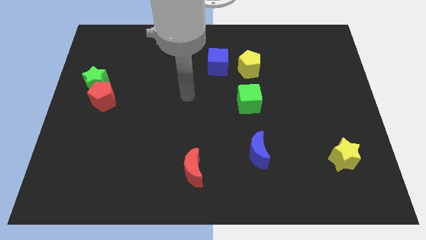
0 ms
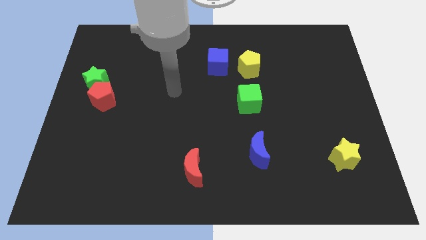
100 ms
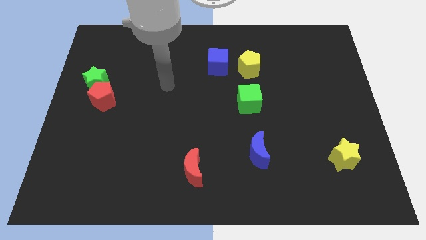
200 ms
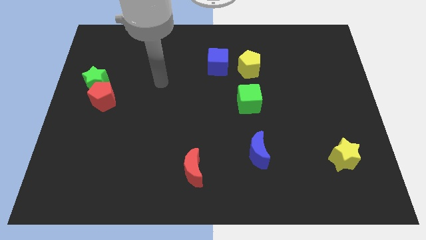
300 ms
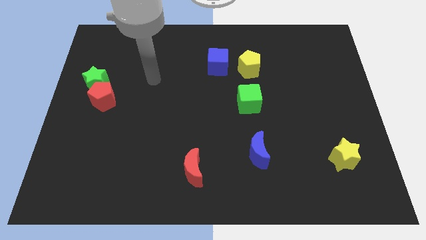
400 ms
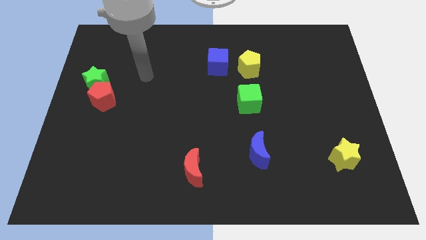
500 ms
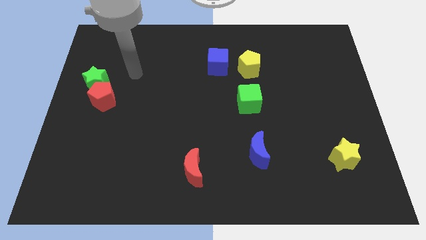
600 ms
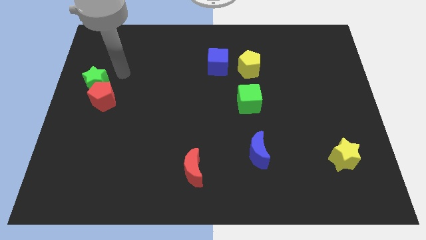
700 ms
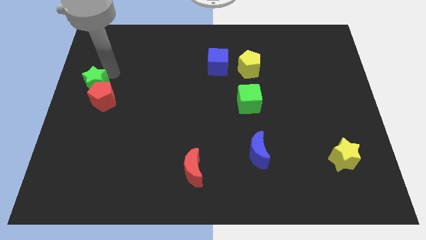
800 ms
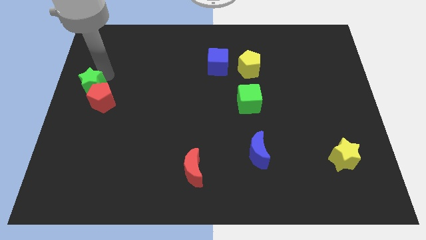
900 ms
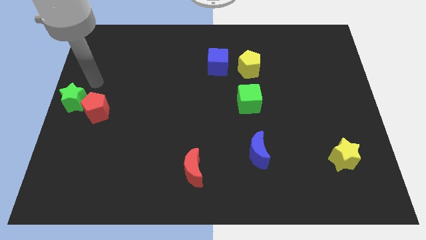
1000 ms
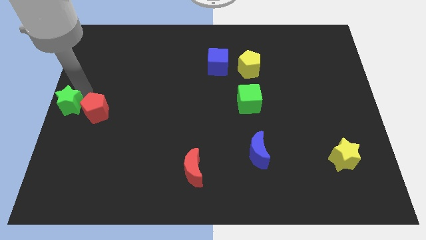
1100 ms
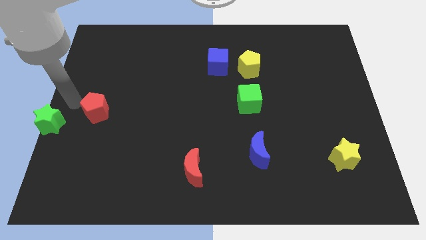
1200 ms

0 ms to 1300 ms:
separate the red pentagon from the green star

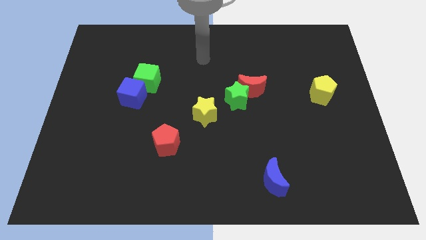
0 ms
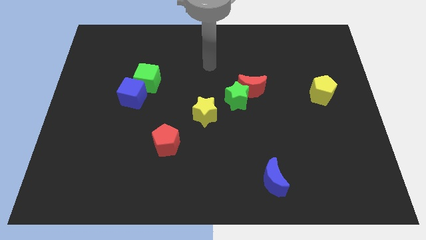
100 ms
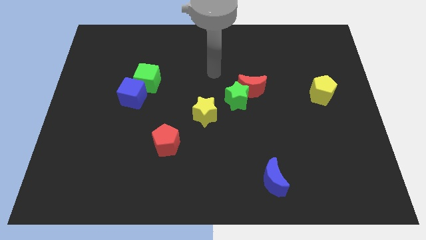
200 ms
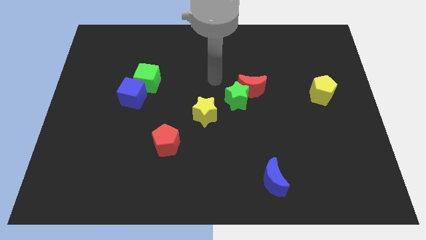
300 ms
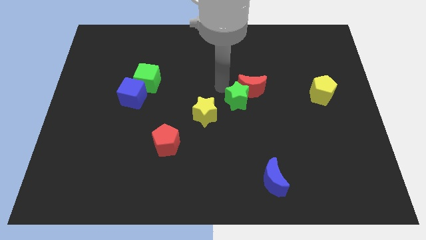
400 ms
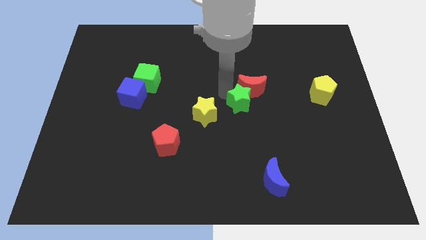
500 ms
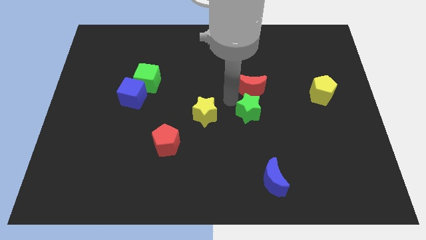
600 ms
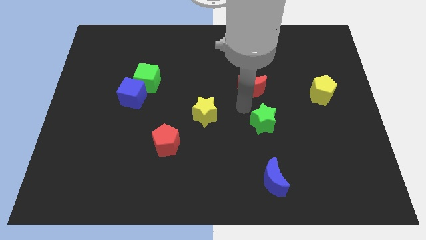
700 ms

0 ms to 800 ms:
pull the red moon apart from the green star

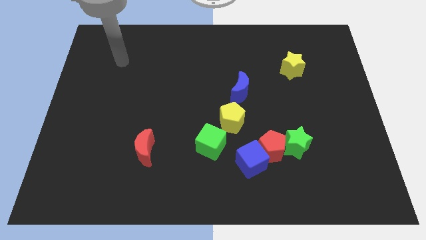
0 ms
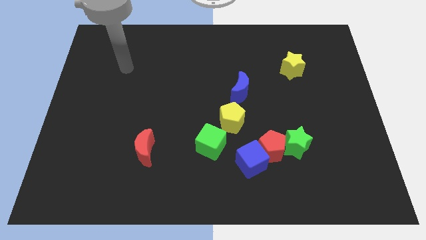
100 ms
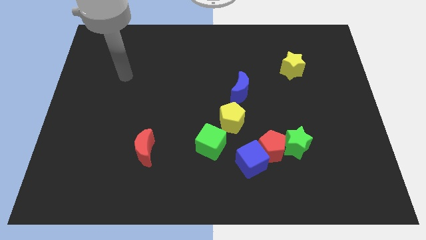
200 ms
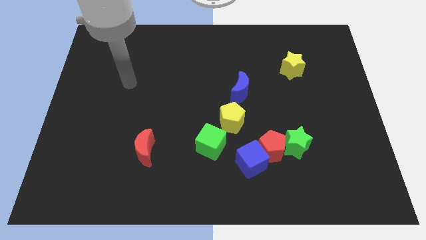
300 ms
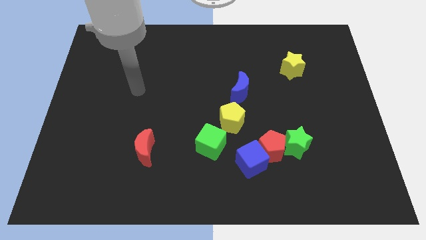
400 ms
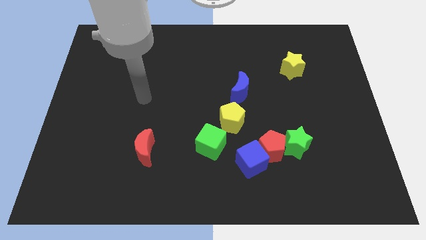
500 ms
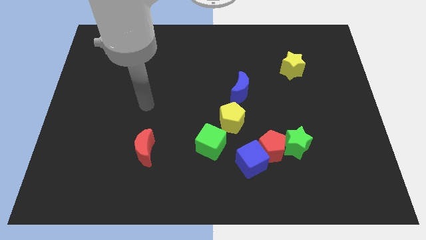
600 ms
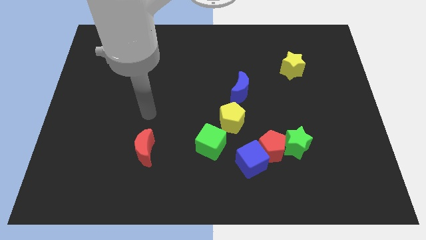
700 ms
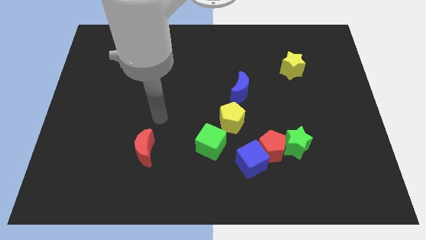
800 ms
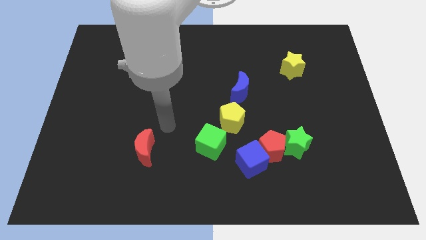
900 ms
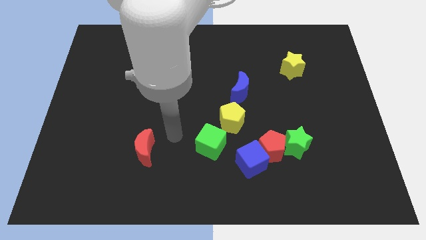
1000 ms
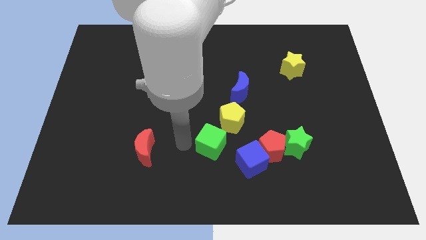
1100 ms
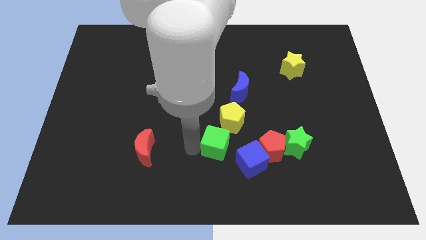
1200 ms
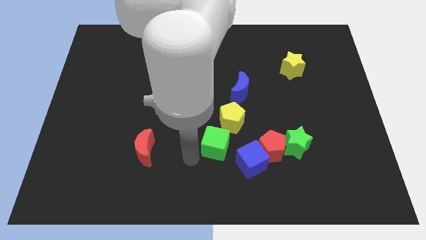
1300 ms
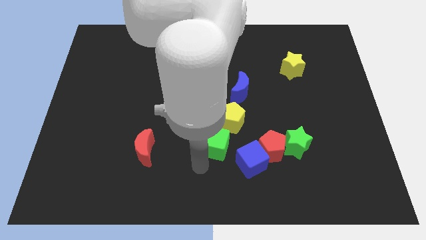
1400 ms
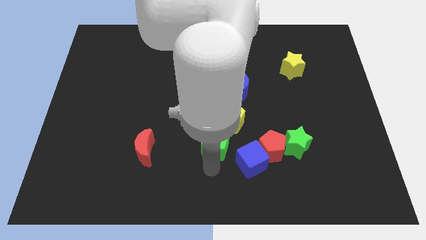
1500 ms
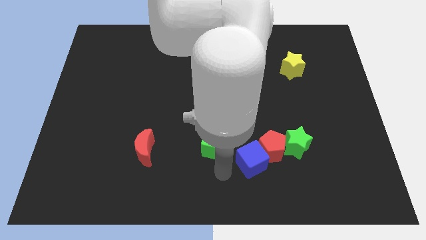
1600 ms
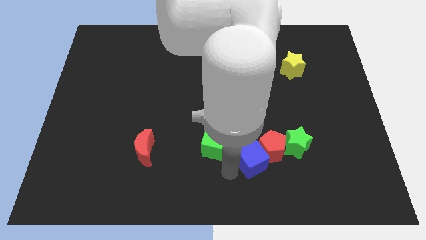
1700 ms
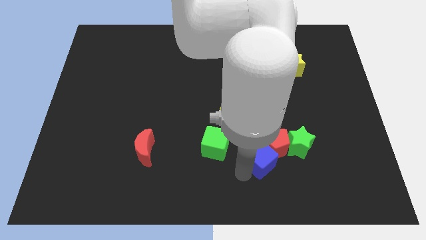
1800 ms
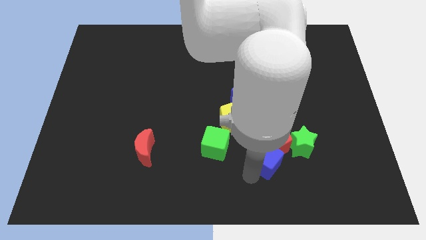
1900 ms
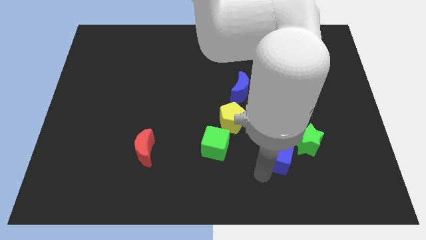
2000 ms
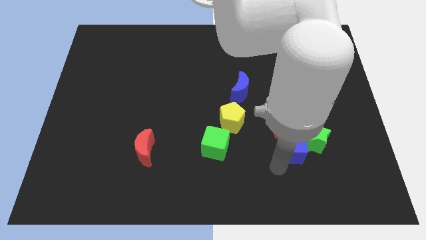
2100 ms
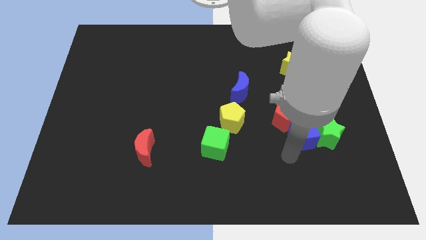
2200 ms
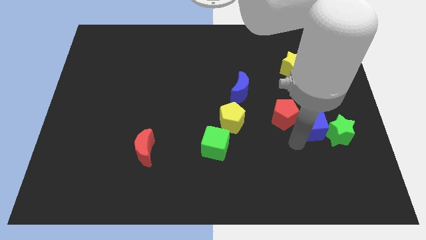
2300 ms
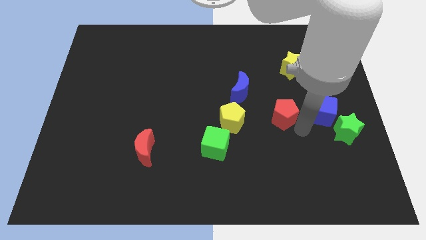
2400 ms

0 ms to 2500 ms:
separate the red pentagon from the blue cube and green star

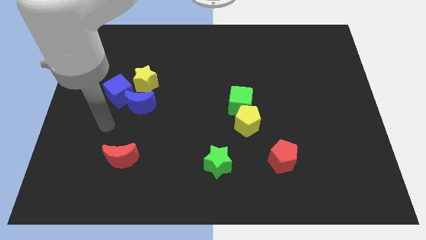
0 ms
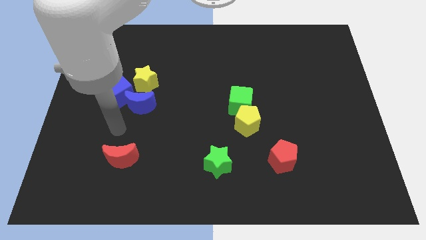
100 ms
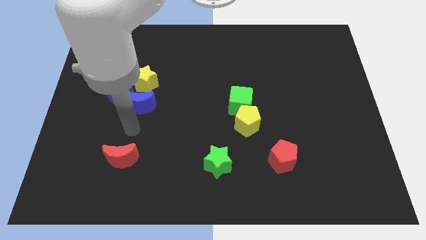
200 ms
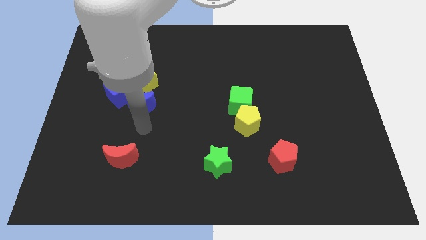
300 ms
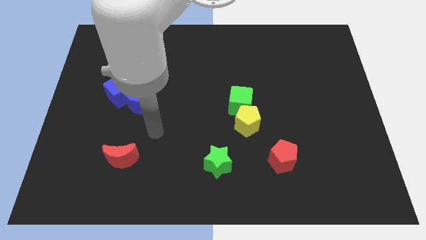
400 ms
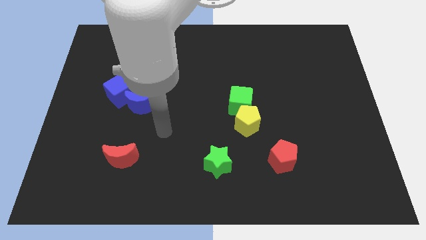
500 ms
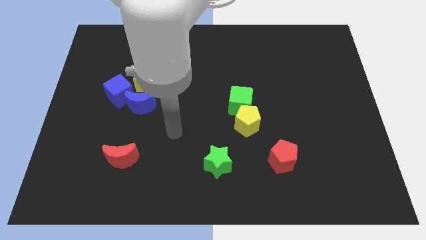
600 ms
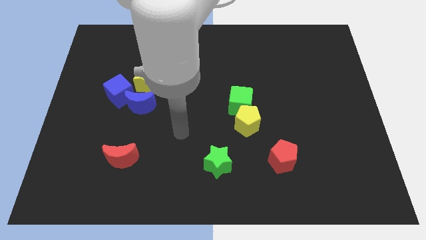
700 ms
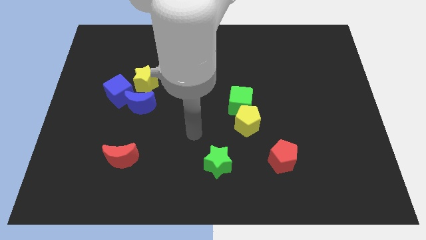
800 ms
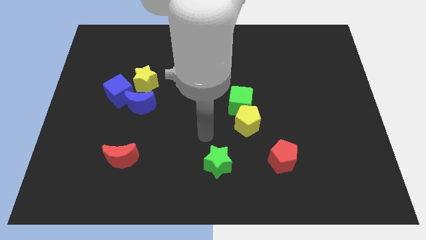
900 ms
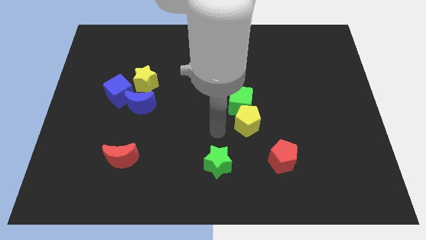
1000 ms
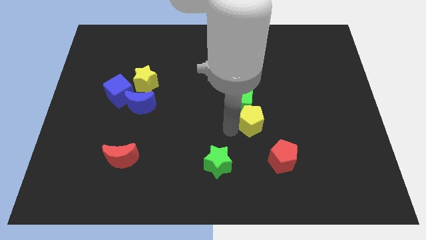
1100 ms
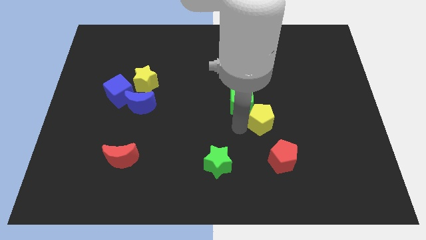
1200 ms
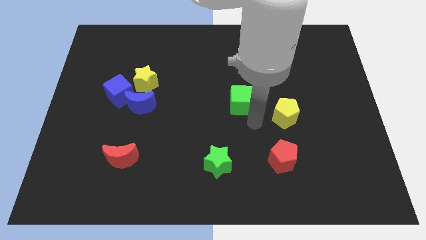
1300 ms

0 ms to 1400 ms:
move the green cube away from the yellow pentagon

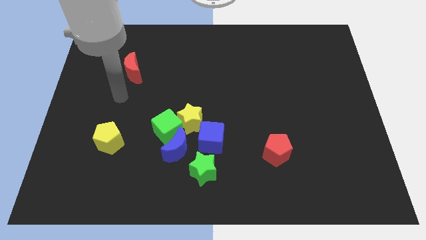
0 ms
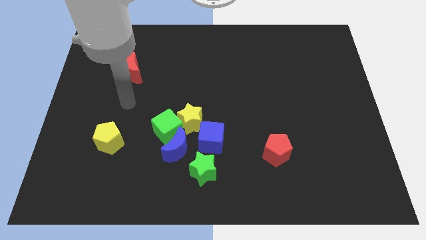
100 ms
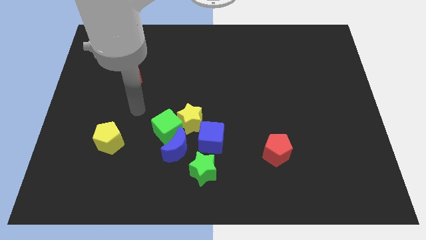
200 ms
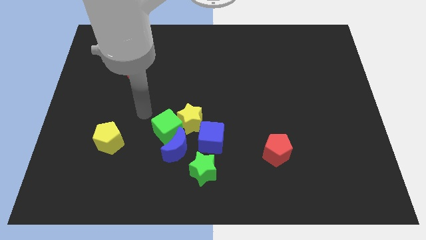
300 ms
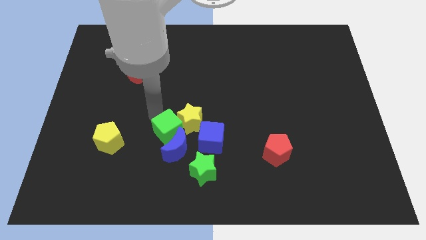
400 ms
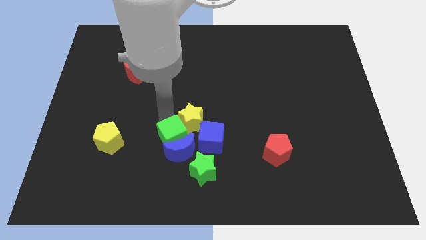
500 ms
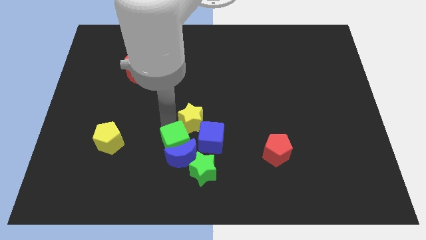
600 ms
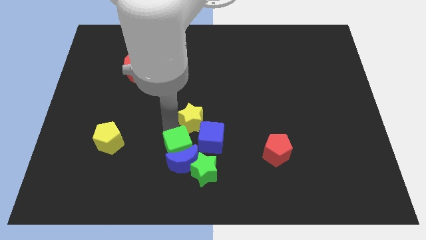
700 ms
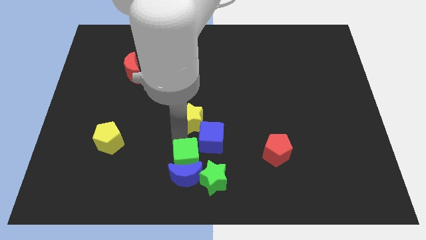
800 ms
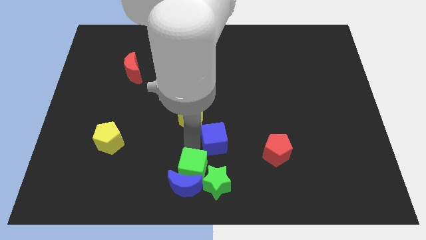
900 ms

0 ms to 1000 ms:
move the yellow star away from the green cube, blue cube, and blue moon

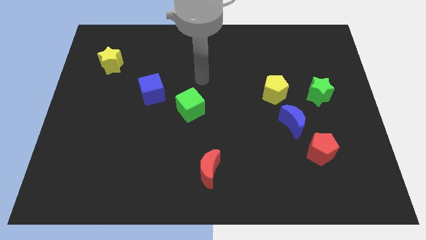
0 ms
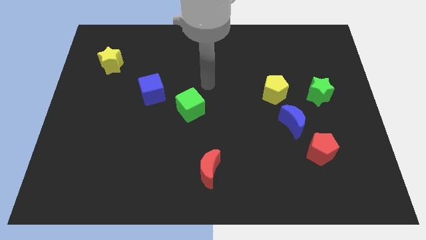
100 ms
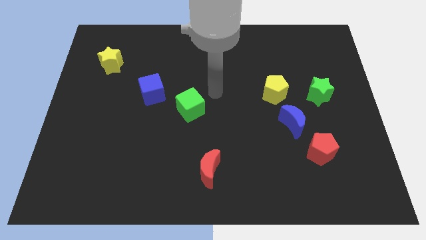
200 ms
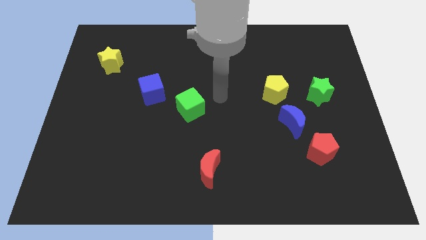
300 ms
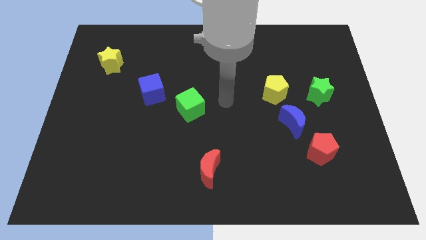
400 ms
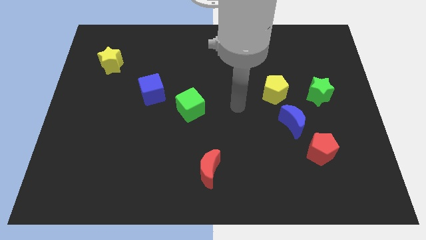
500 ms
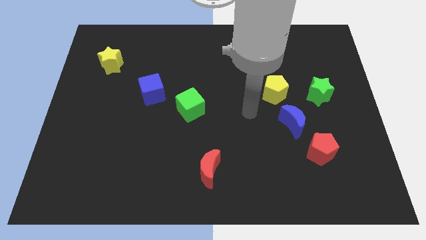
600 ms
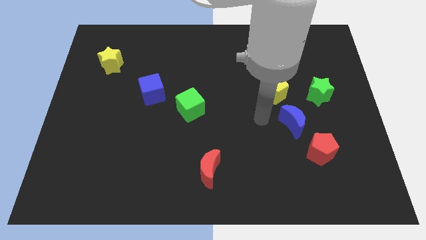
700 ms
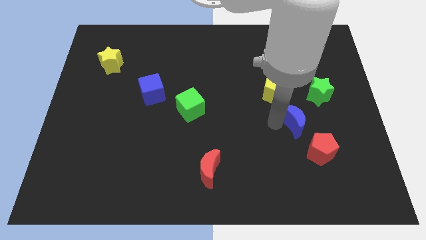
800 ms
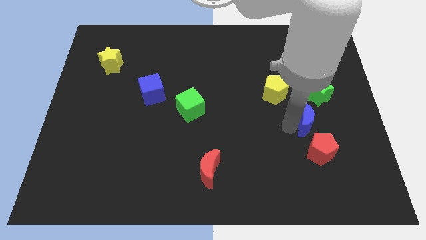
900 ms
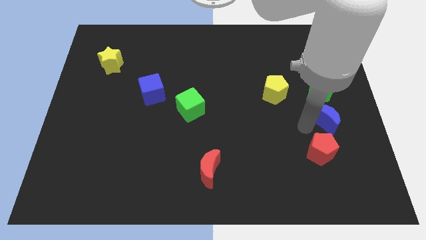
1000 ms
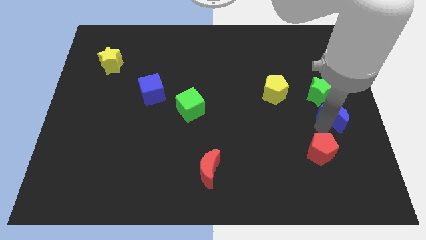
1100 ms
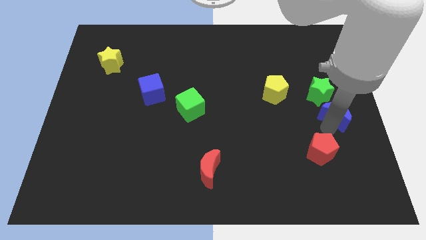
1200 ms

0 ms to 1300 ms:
pull the red pentagon apart from the blue moon

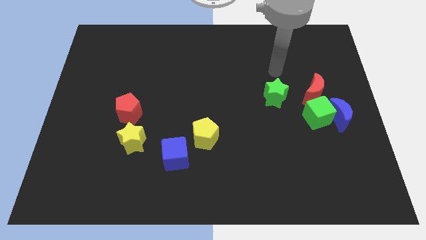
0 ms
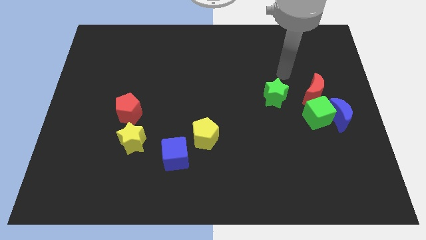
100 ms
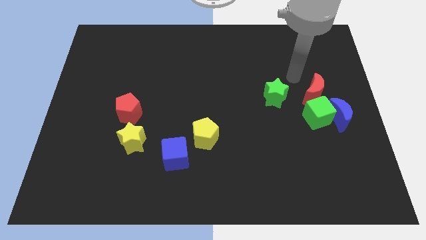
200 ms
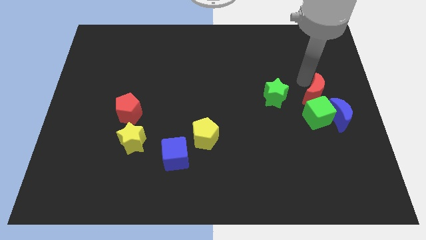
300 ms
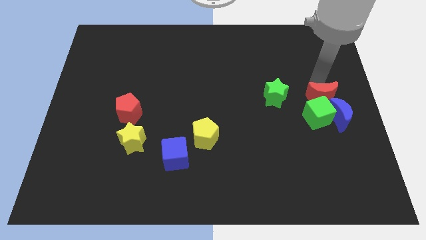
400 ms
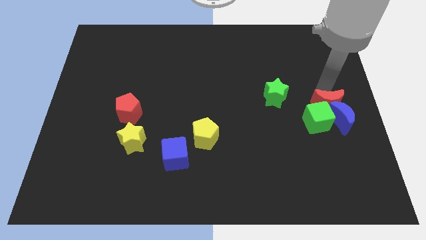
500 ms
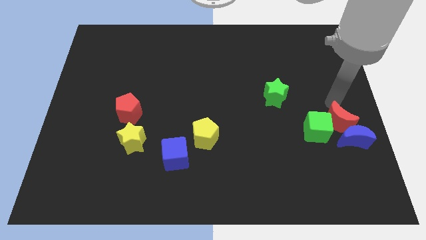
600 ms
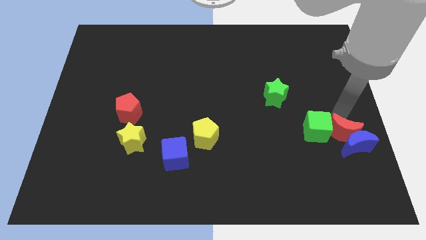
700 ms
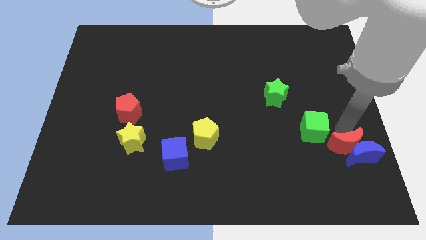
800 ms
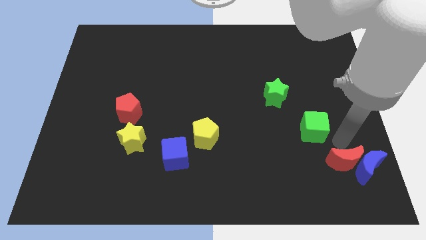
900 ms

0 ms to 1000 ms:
pull the green cube apart from the blue moon and red moon
